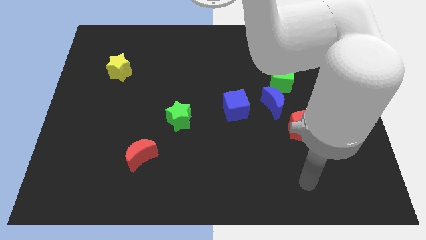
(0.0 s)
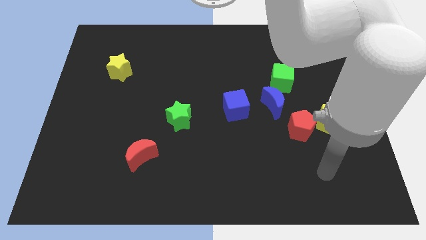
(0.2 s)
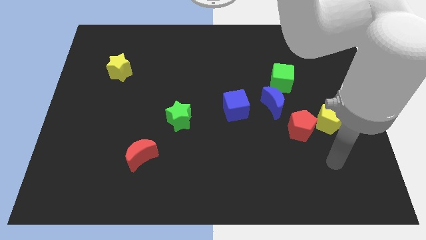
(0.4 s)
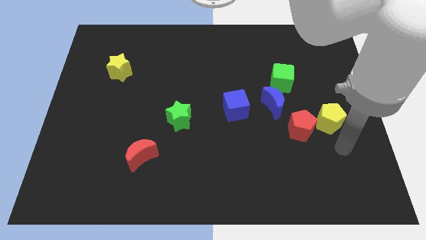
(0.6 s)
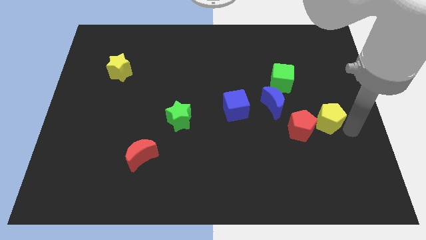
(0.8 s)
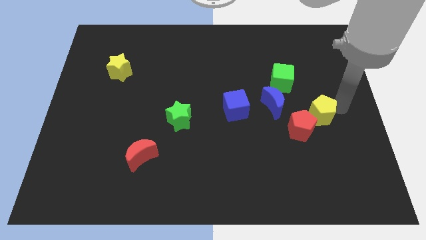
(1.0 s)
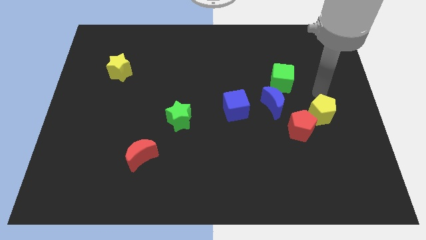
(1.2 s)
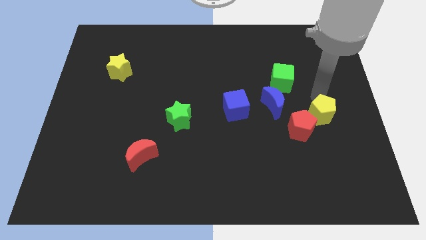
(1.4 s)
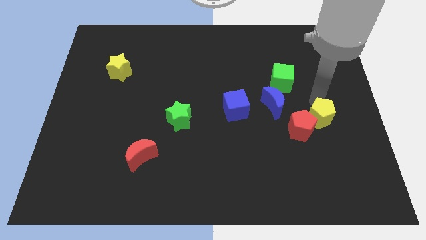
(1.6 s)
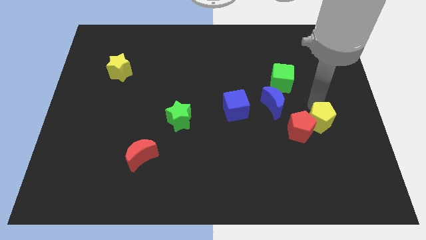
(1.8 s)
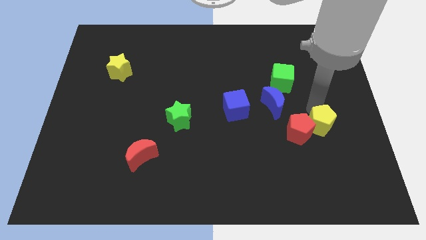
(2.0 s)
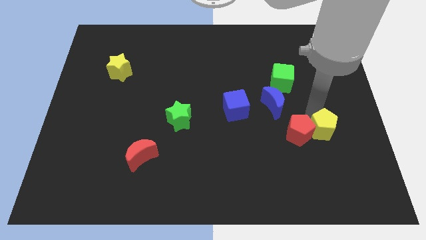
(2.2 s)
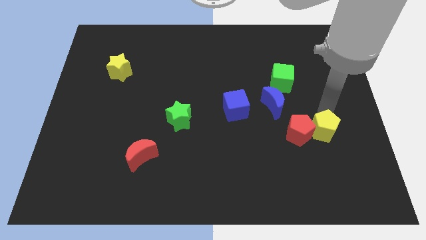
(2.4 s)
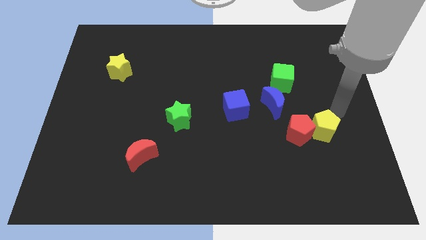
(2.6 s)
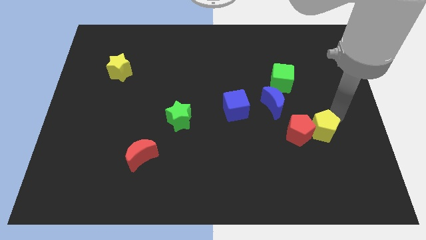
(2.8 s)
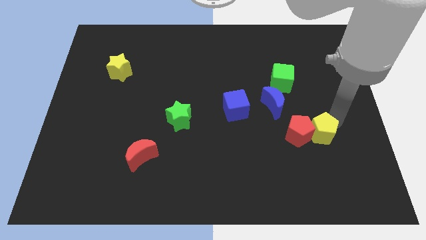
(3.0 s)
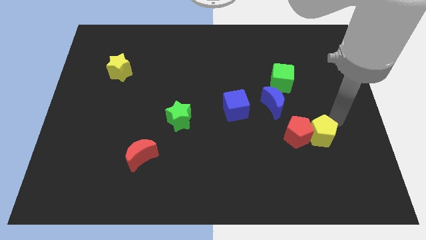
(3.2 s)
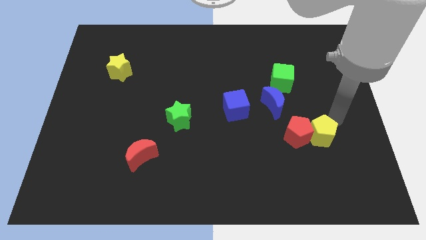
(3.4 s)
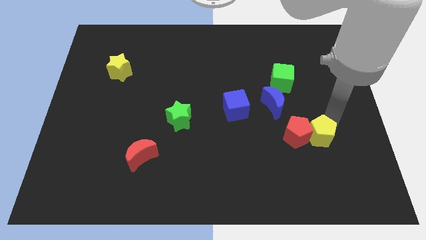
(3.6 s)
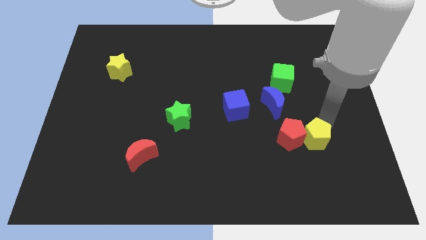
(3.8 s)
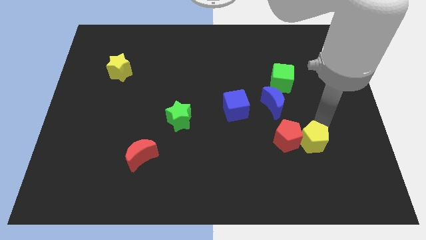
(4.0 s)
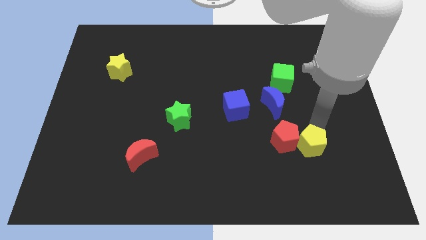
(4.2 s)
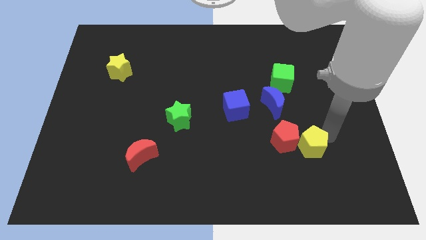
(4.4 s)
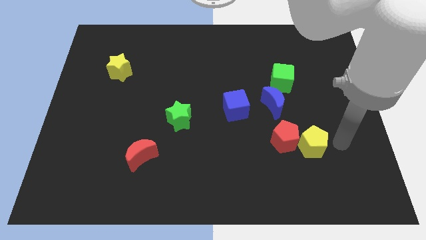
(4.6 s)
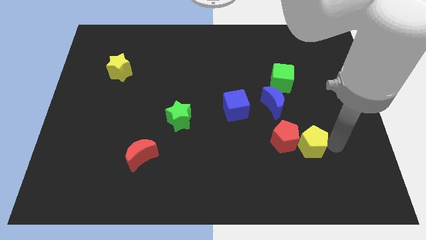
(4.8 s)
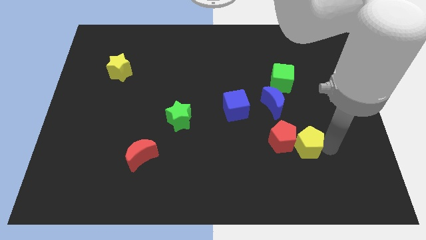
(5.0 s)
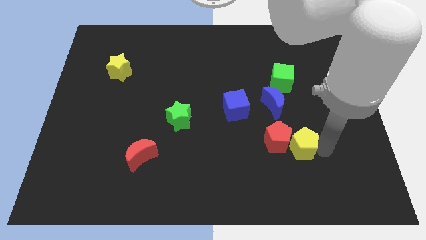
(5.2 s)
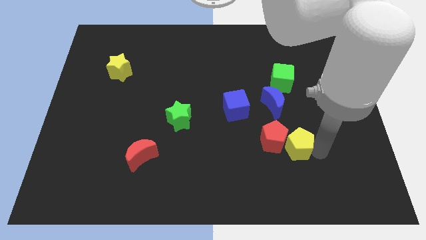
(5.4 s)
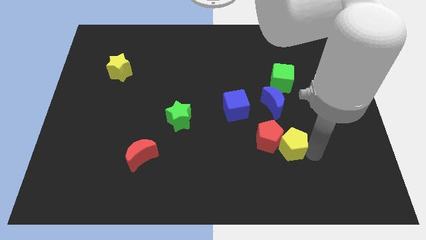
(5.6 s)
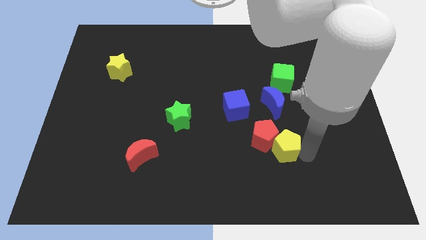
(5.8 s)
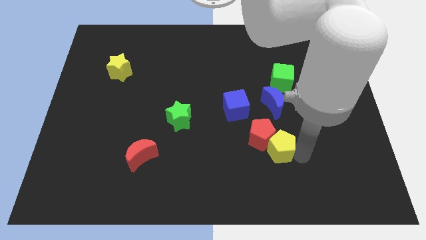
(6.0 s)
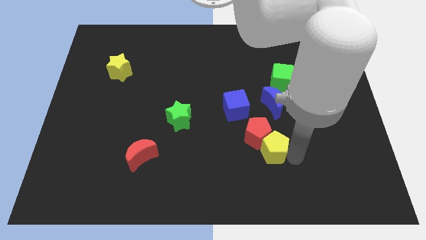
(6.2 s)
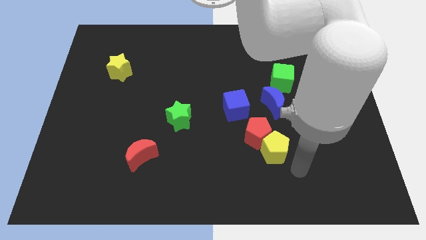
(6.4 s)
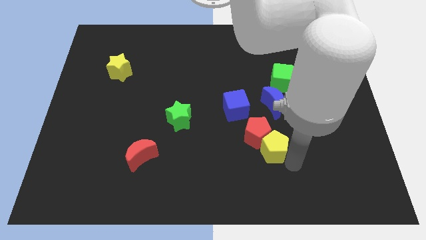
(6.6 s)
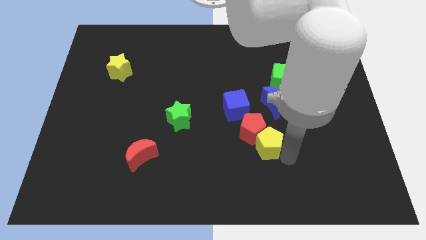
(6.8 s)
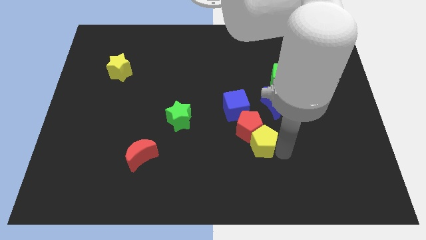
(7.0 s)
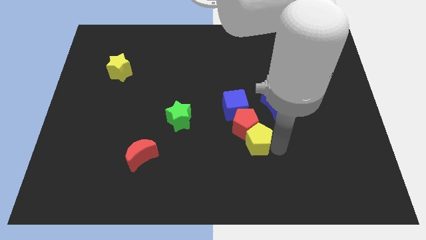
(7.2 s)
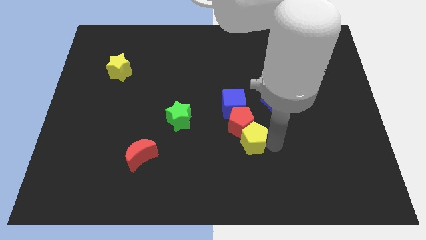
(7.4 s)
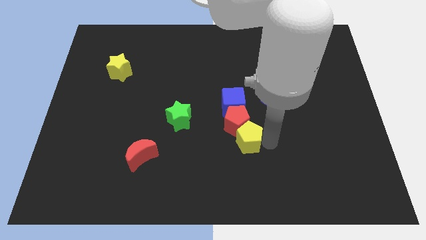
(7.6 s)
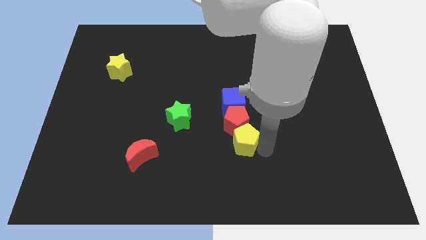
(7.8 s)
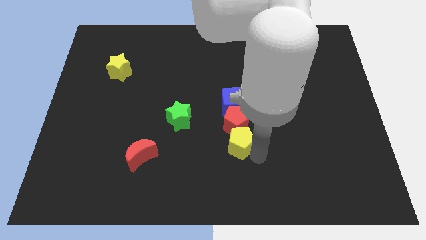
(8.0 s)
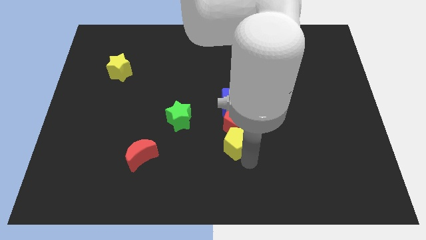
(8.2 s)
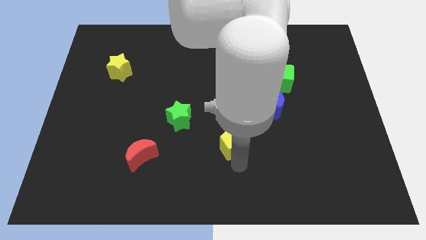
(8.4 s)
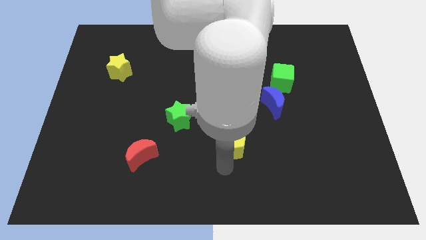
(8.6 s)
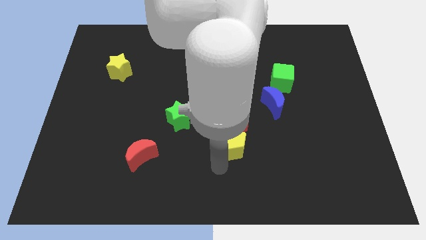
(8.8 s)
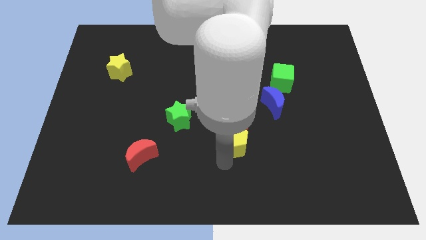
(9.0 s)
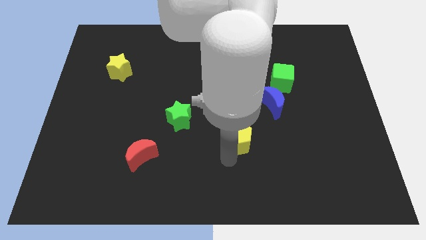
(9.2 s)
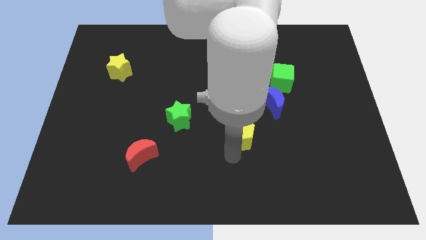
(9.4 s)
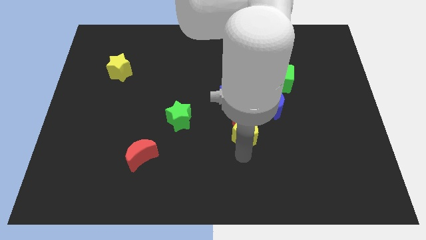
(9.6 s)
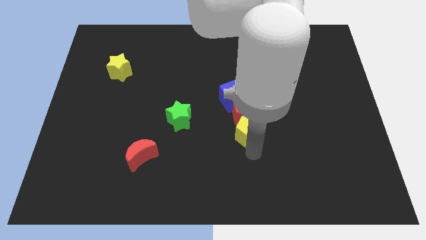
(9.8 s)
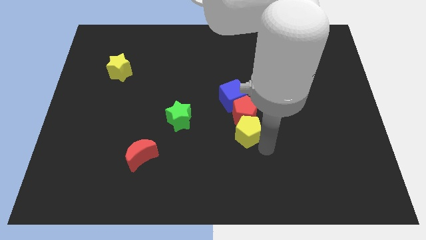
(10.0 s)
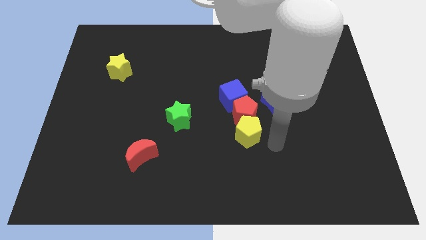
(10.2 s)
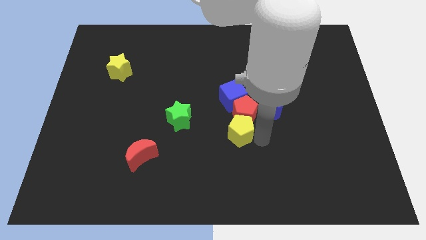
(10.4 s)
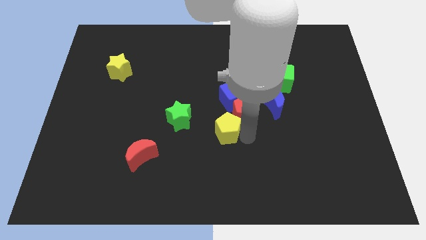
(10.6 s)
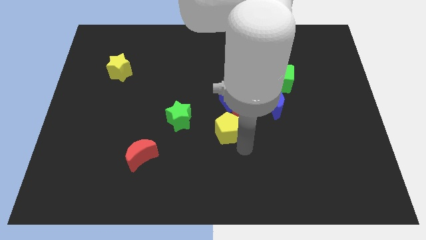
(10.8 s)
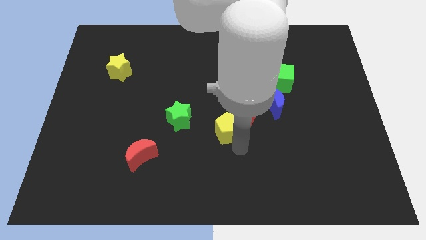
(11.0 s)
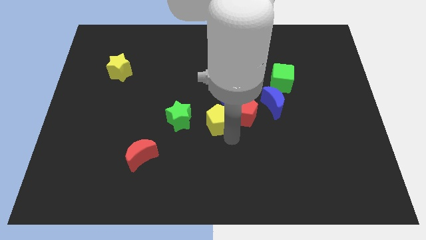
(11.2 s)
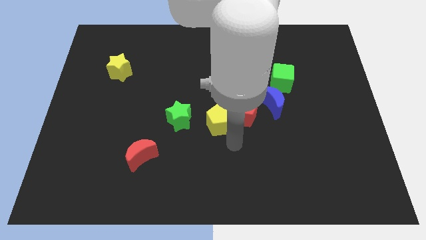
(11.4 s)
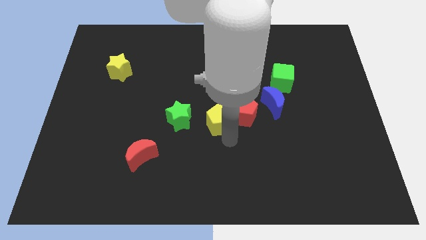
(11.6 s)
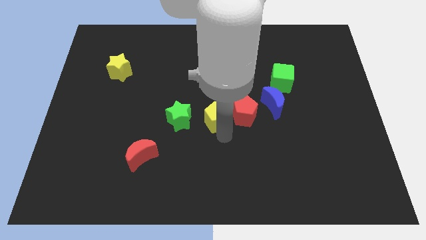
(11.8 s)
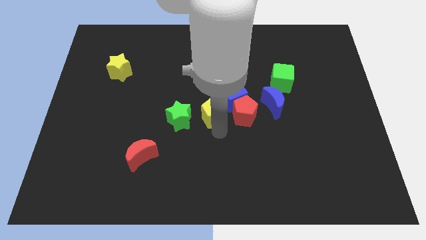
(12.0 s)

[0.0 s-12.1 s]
push the yellow pentagon to the top right of the green star
